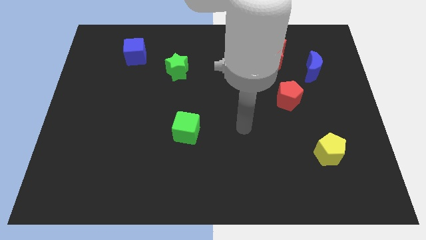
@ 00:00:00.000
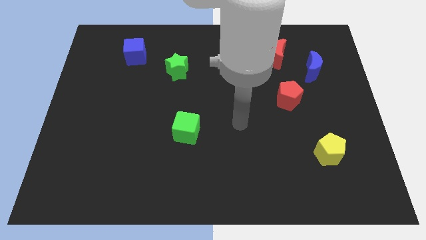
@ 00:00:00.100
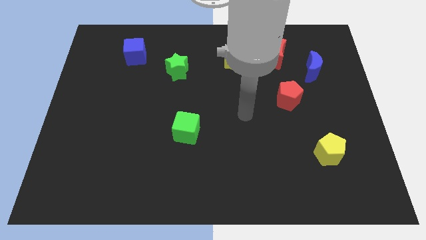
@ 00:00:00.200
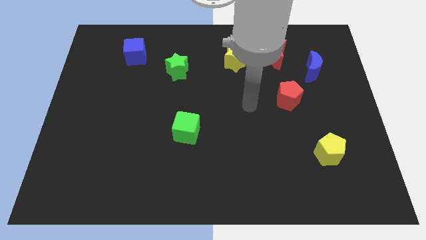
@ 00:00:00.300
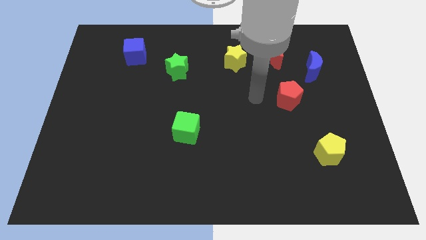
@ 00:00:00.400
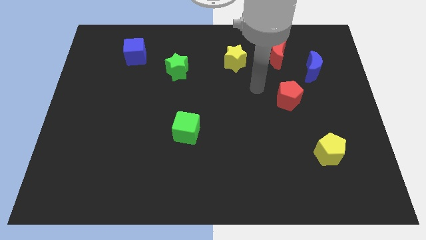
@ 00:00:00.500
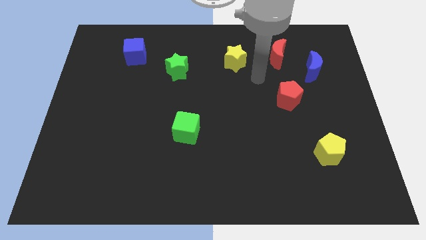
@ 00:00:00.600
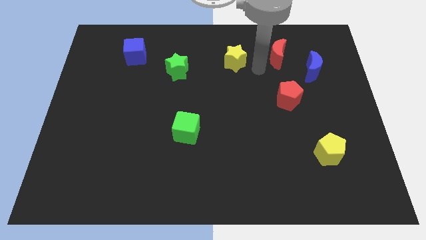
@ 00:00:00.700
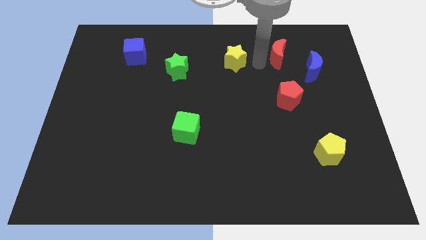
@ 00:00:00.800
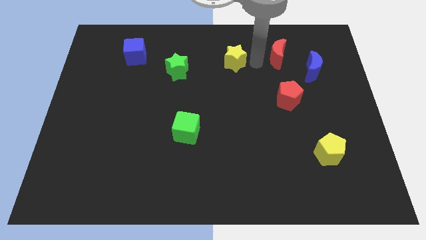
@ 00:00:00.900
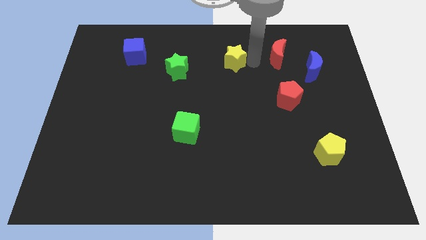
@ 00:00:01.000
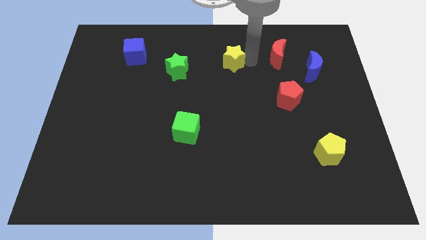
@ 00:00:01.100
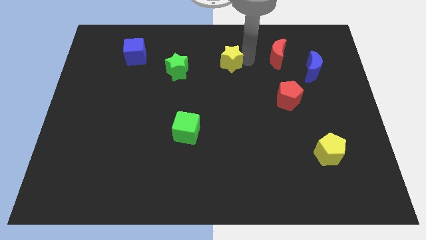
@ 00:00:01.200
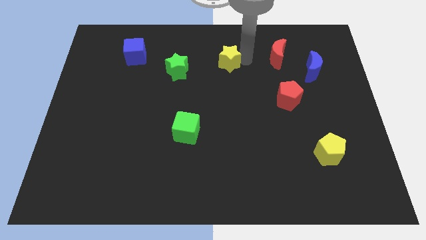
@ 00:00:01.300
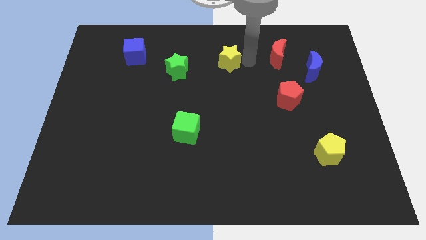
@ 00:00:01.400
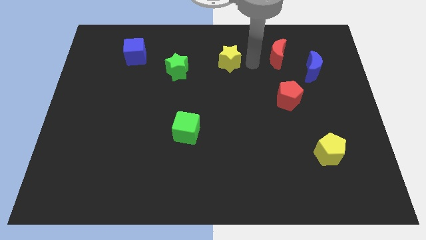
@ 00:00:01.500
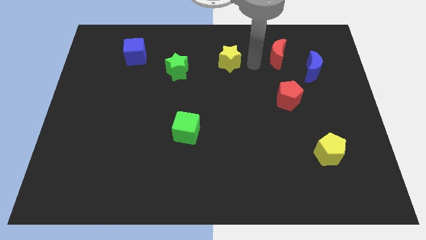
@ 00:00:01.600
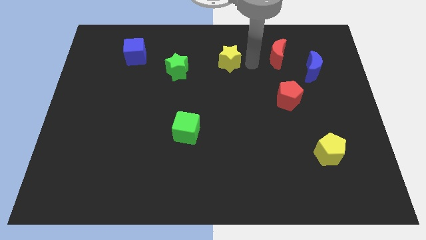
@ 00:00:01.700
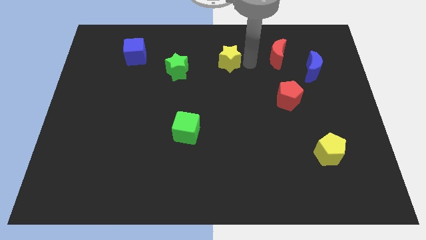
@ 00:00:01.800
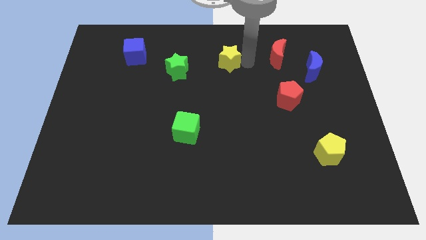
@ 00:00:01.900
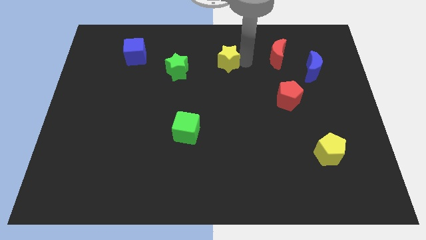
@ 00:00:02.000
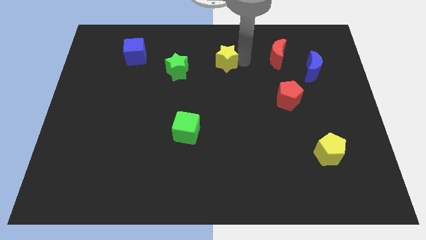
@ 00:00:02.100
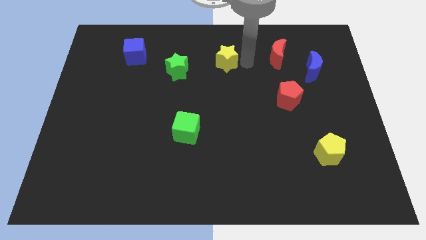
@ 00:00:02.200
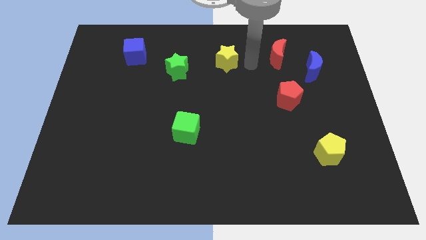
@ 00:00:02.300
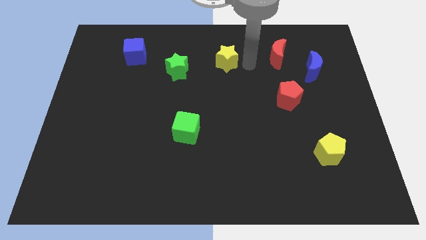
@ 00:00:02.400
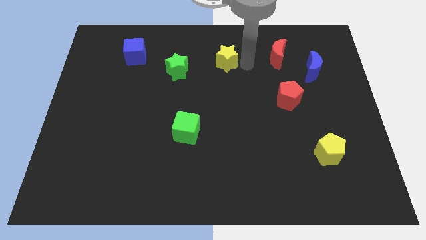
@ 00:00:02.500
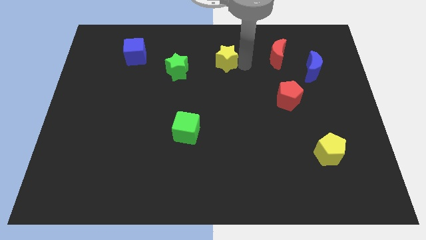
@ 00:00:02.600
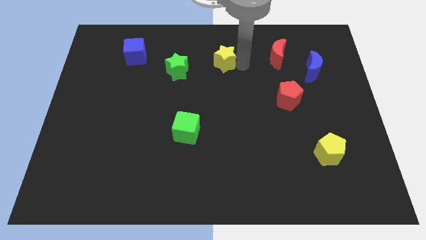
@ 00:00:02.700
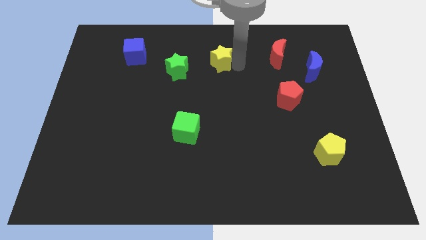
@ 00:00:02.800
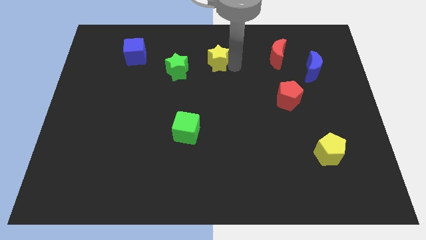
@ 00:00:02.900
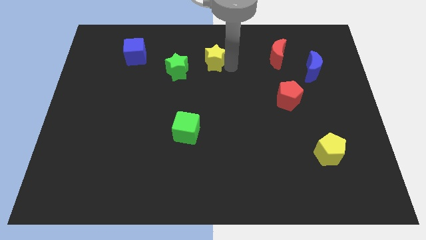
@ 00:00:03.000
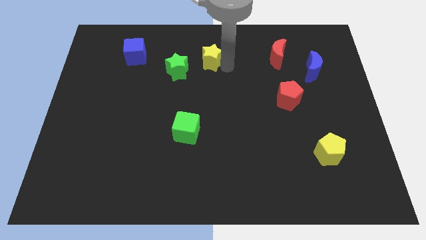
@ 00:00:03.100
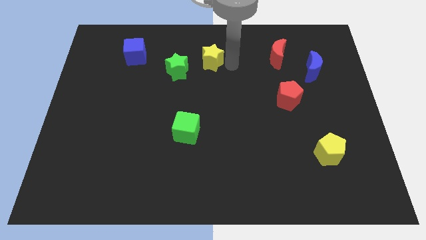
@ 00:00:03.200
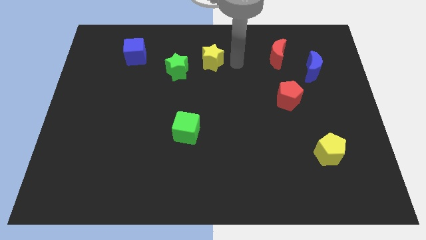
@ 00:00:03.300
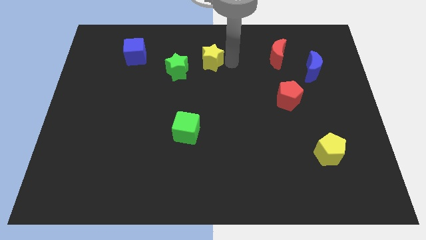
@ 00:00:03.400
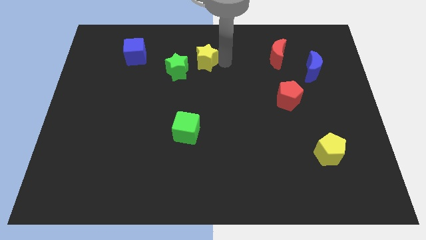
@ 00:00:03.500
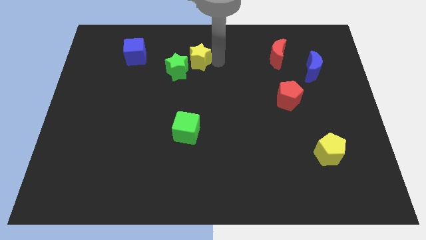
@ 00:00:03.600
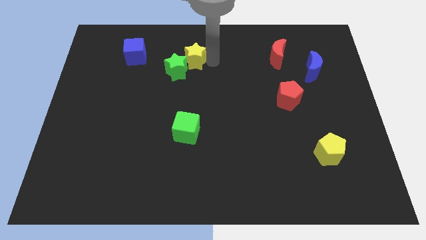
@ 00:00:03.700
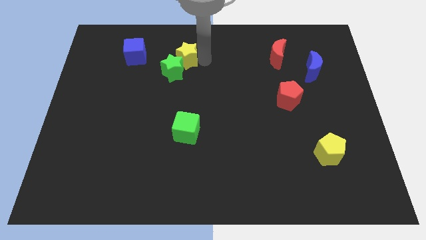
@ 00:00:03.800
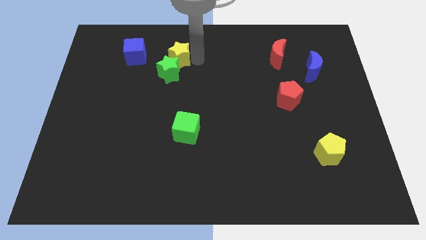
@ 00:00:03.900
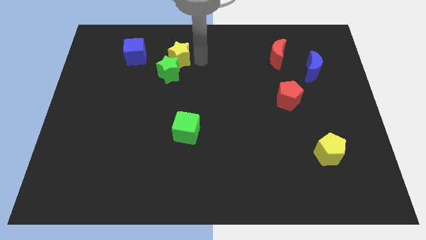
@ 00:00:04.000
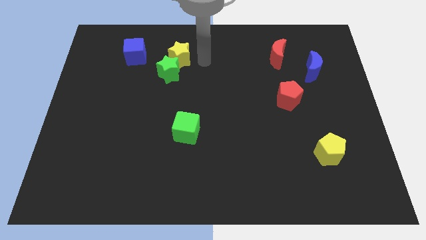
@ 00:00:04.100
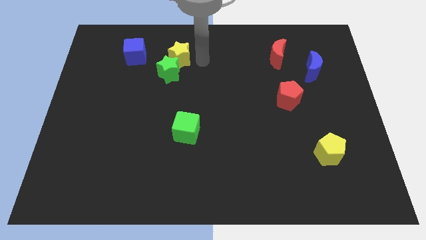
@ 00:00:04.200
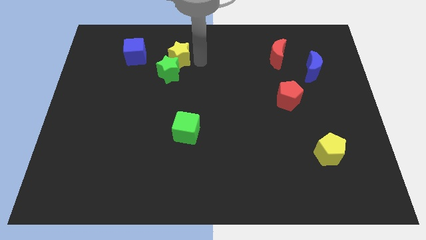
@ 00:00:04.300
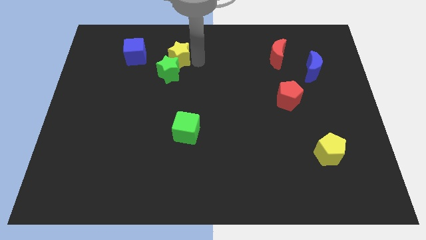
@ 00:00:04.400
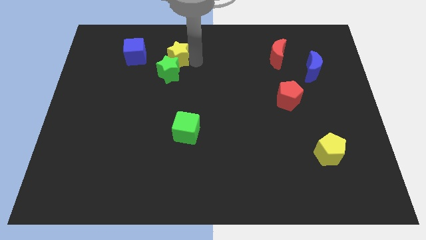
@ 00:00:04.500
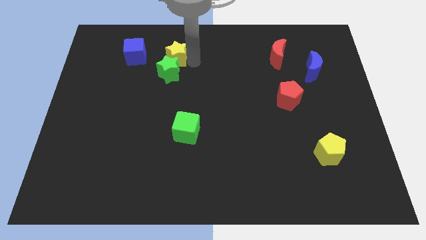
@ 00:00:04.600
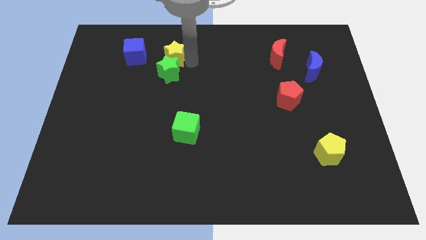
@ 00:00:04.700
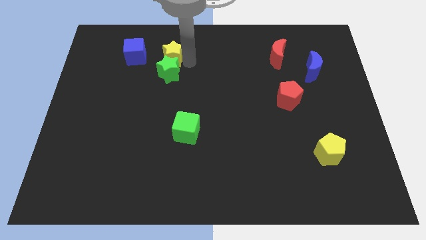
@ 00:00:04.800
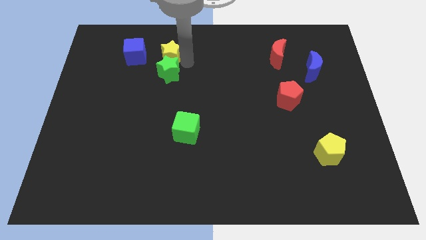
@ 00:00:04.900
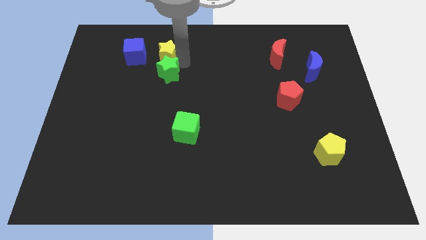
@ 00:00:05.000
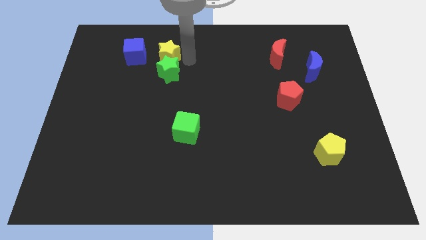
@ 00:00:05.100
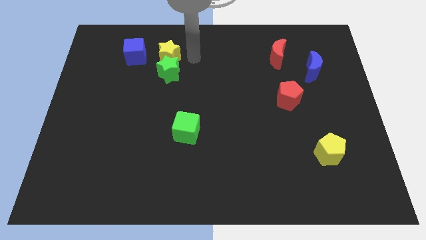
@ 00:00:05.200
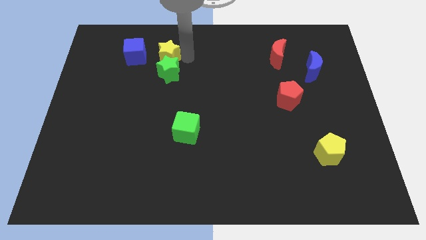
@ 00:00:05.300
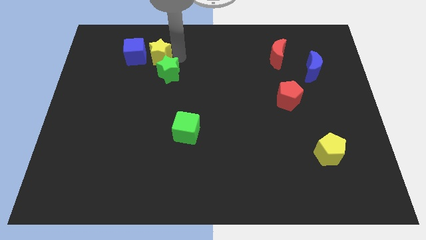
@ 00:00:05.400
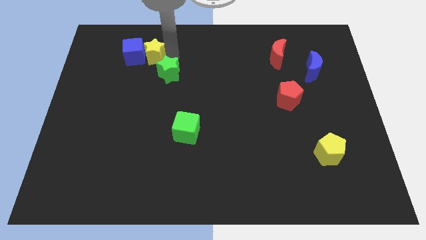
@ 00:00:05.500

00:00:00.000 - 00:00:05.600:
move the yellow star to the blue cube
